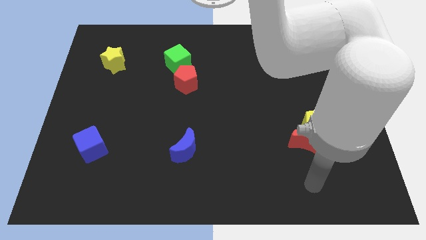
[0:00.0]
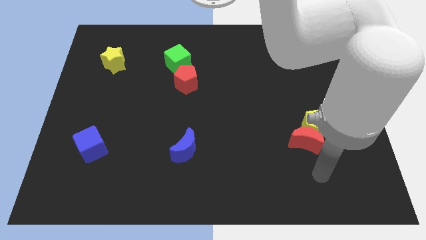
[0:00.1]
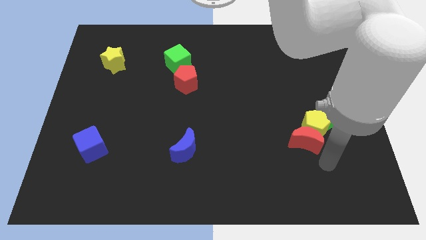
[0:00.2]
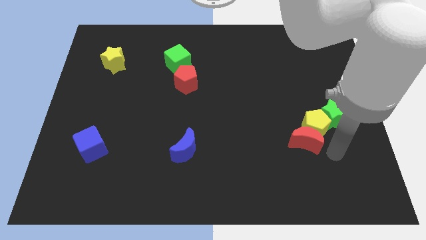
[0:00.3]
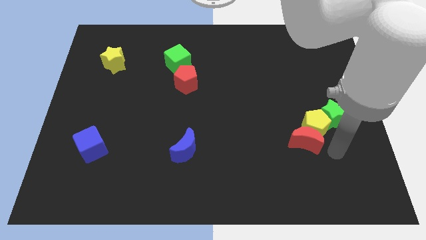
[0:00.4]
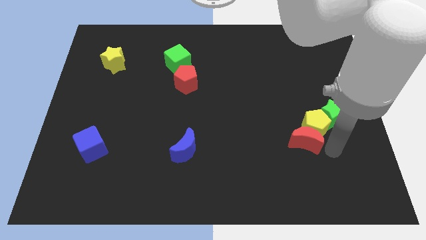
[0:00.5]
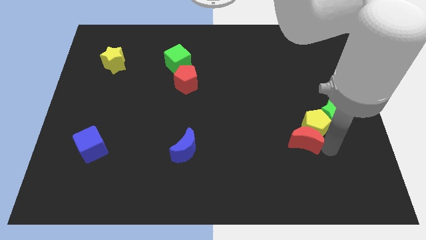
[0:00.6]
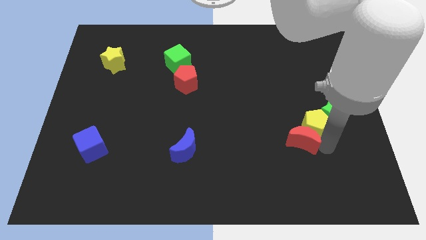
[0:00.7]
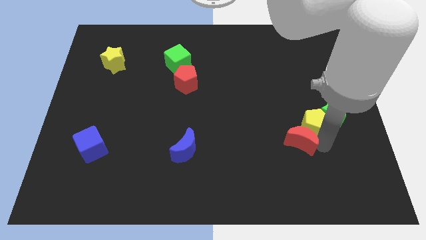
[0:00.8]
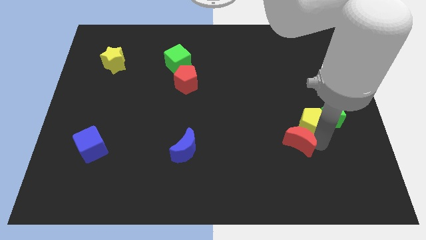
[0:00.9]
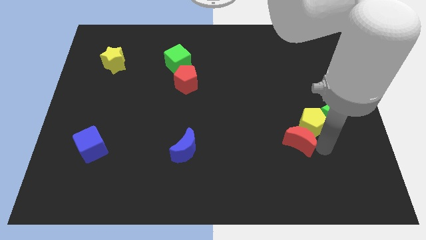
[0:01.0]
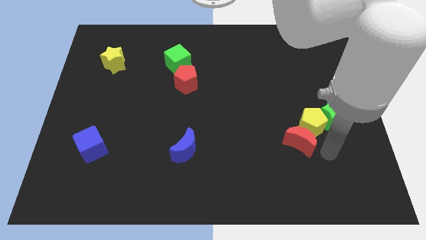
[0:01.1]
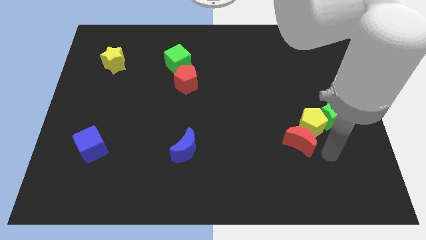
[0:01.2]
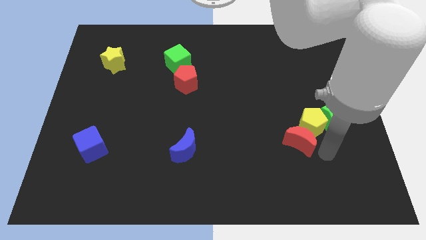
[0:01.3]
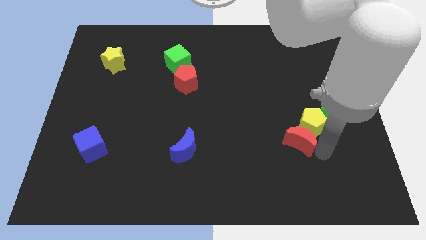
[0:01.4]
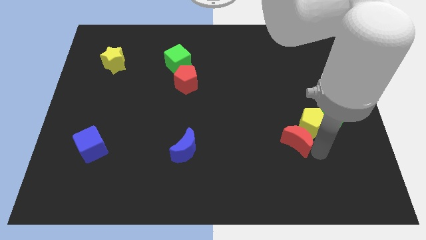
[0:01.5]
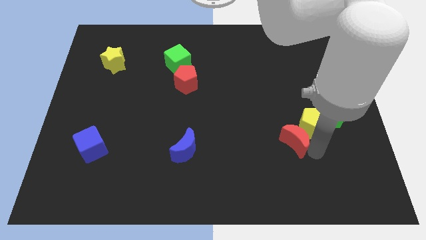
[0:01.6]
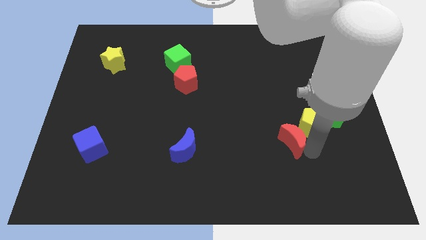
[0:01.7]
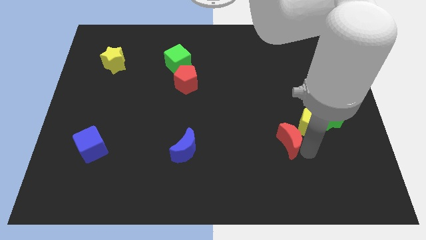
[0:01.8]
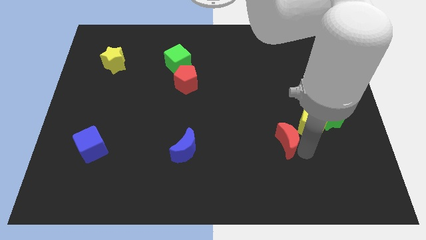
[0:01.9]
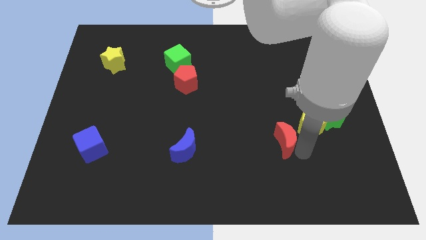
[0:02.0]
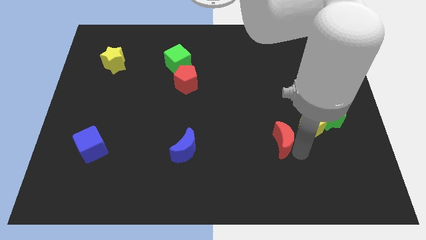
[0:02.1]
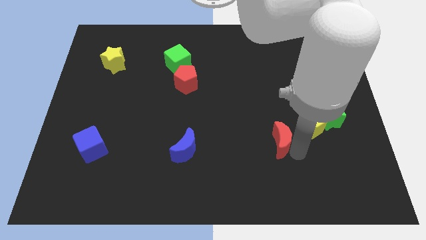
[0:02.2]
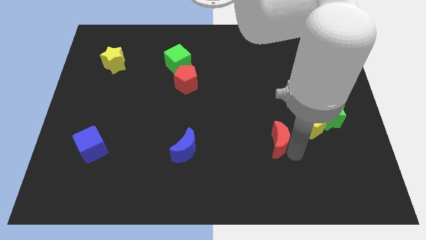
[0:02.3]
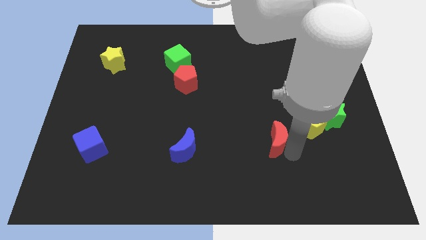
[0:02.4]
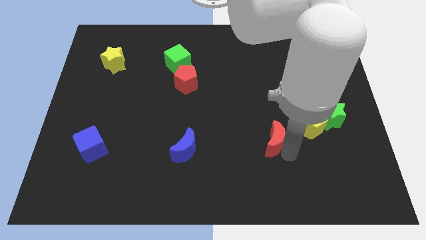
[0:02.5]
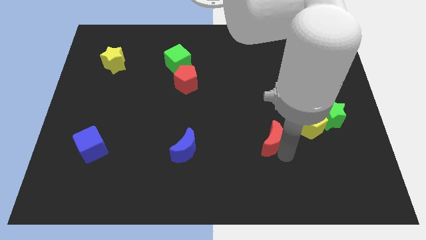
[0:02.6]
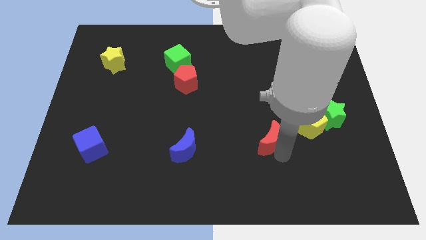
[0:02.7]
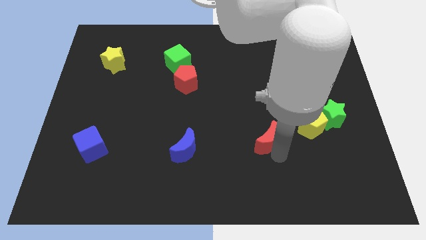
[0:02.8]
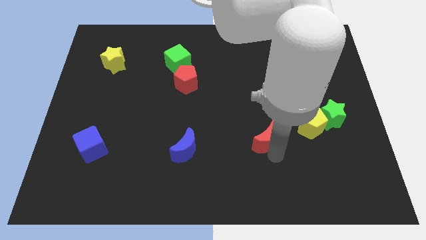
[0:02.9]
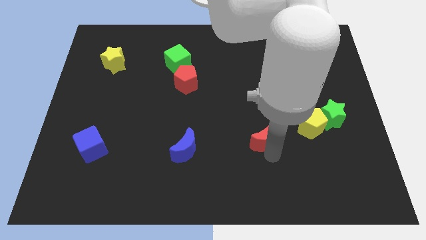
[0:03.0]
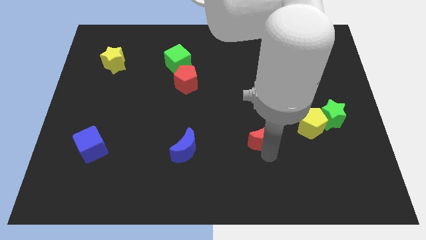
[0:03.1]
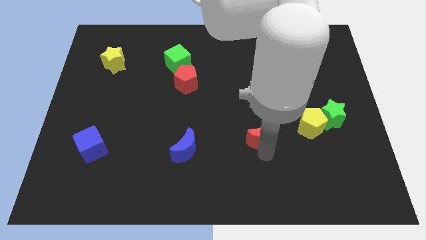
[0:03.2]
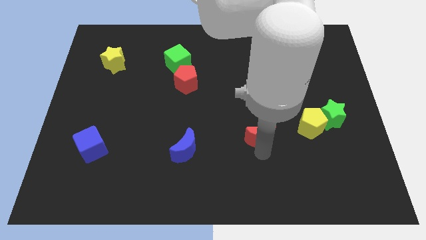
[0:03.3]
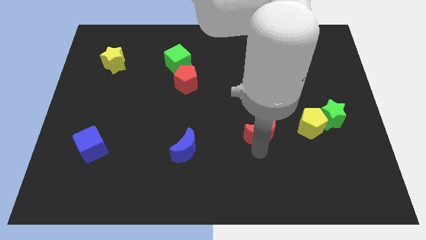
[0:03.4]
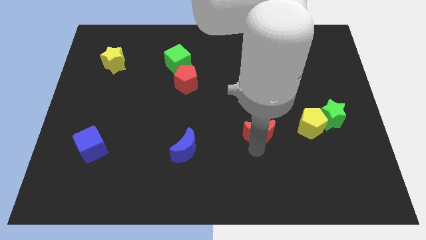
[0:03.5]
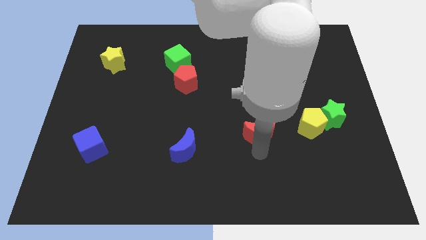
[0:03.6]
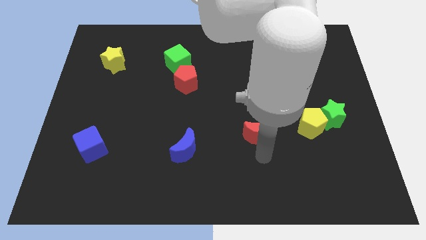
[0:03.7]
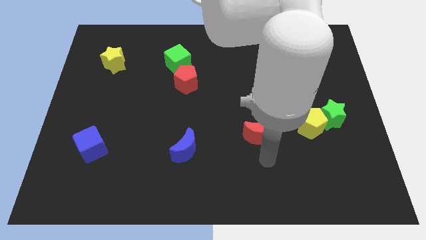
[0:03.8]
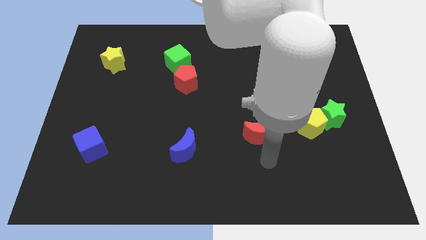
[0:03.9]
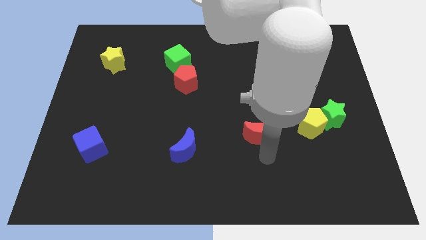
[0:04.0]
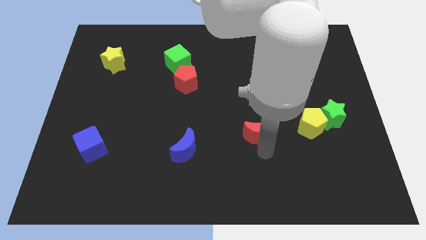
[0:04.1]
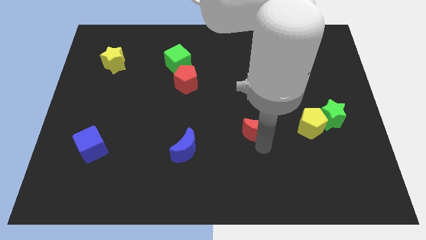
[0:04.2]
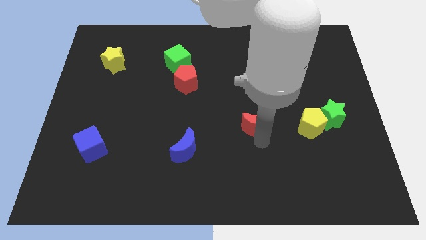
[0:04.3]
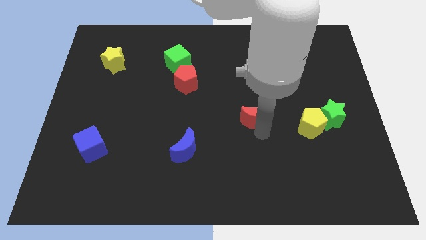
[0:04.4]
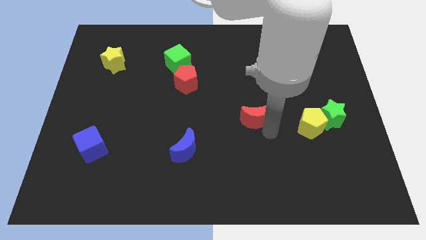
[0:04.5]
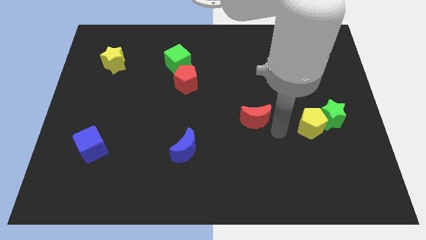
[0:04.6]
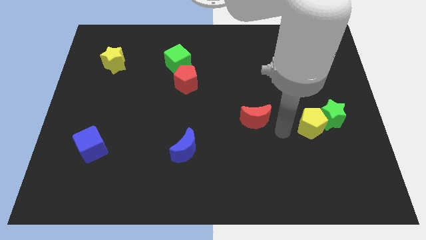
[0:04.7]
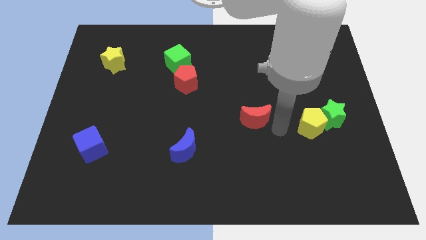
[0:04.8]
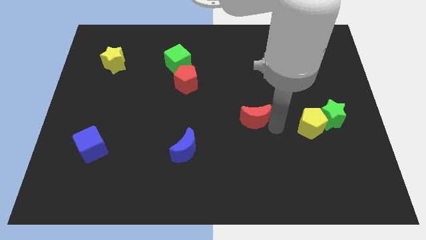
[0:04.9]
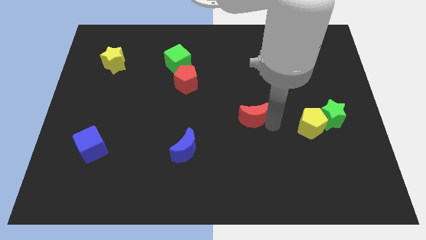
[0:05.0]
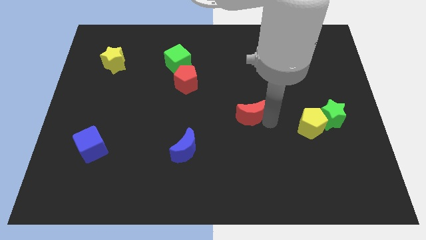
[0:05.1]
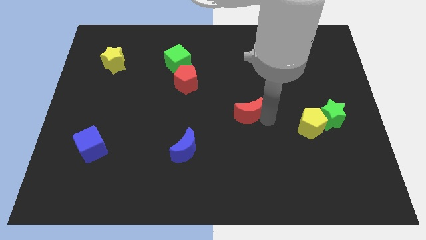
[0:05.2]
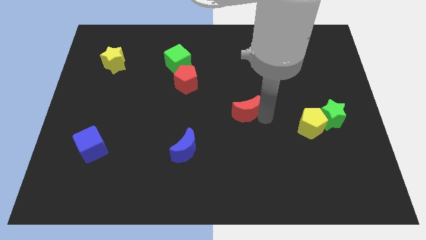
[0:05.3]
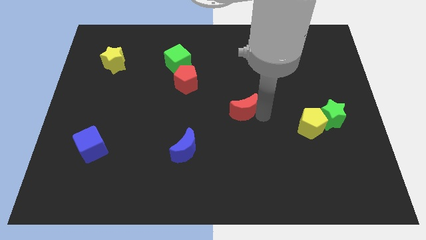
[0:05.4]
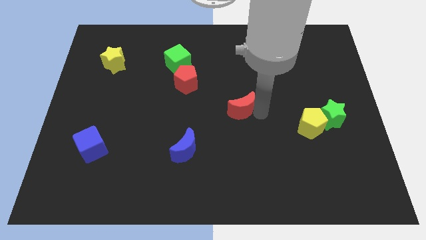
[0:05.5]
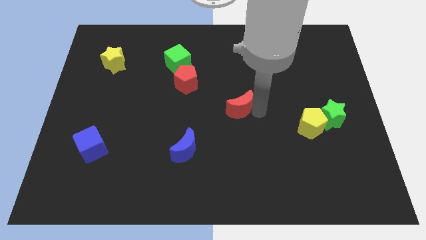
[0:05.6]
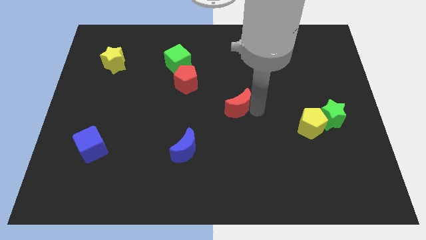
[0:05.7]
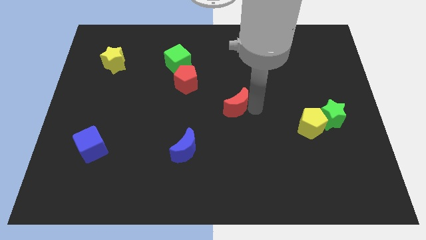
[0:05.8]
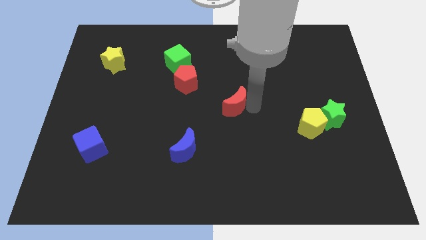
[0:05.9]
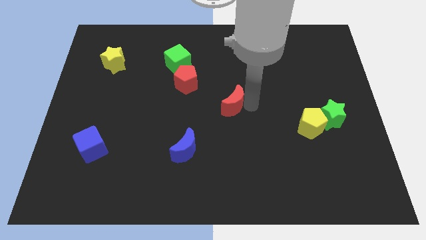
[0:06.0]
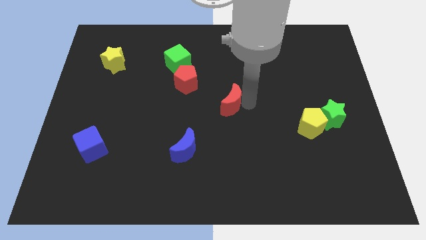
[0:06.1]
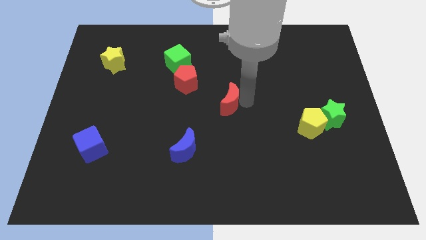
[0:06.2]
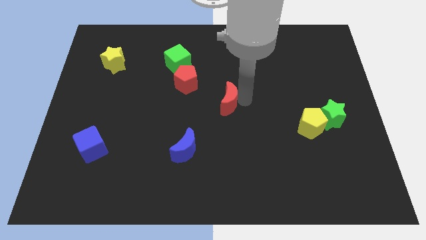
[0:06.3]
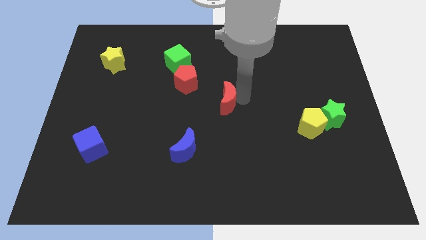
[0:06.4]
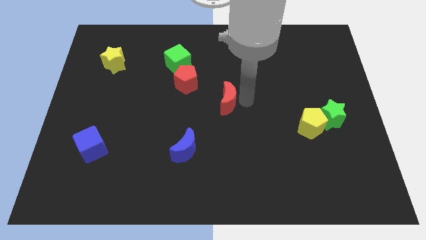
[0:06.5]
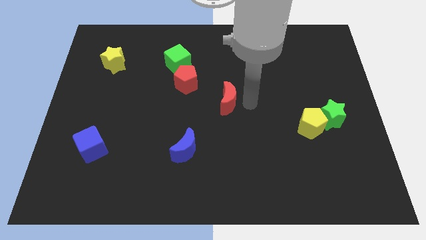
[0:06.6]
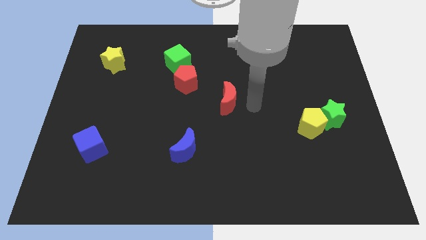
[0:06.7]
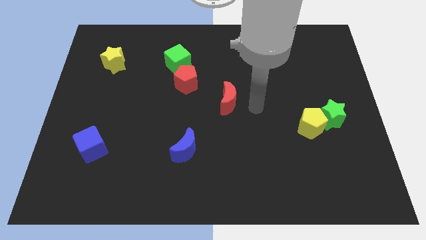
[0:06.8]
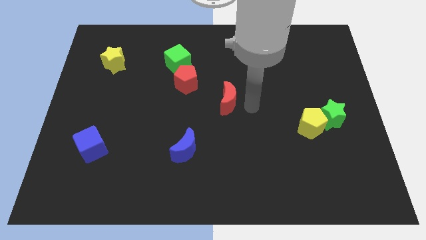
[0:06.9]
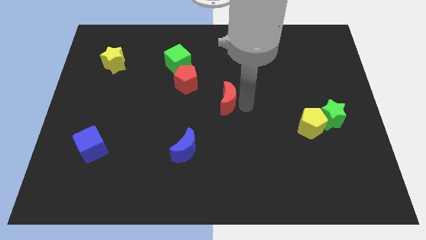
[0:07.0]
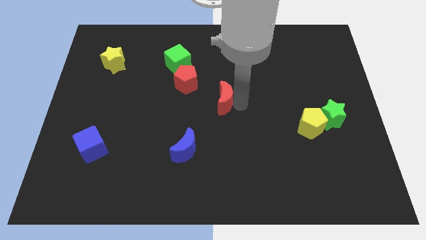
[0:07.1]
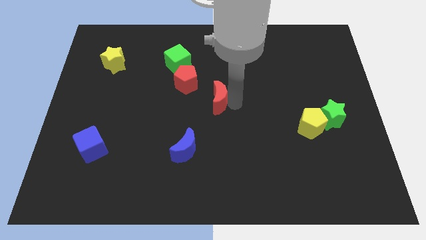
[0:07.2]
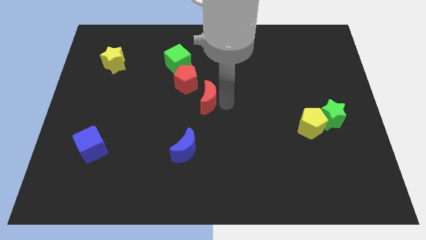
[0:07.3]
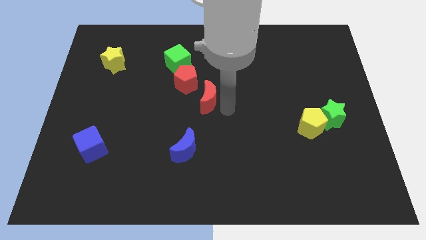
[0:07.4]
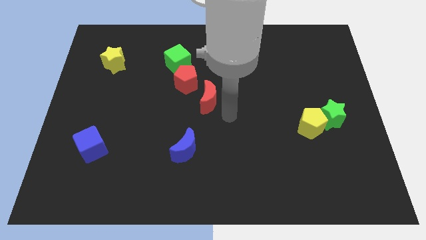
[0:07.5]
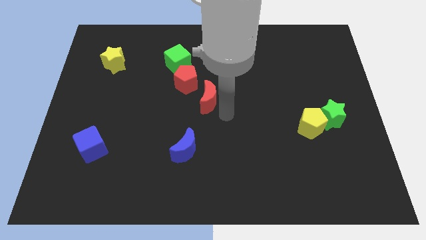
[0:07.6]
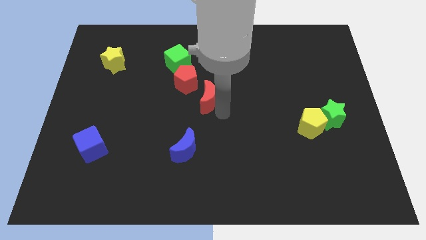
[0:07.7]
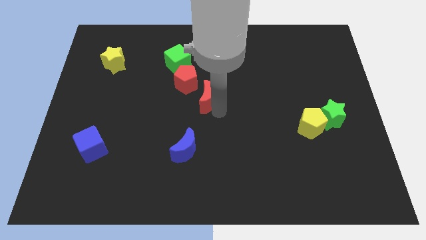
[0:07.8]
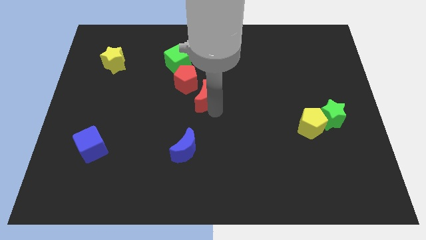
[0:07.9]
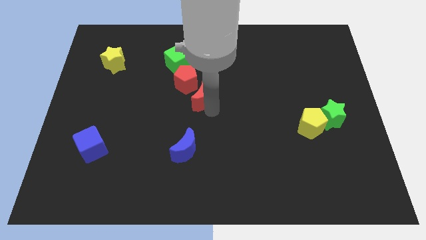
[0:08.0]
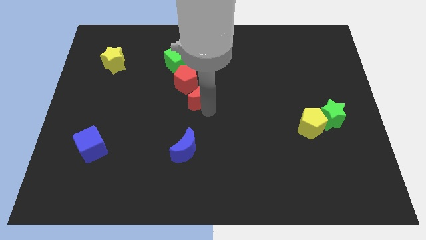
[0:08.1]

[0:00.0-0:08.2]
push the red moon close to the red pentagon
